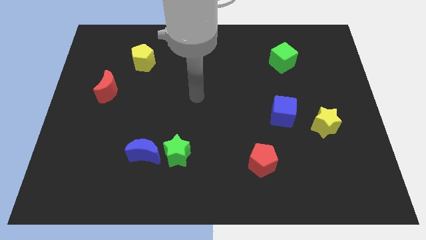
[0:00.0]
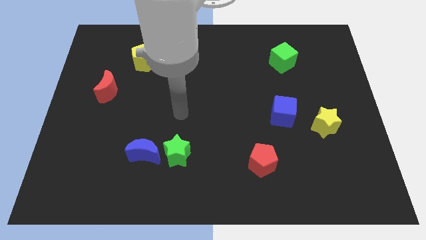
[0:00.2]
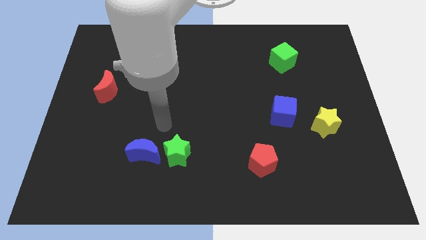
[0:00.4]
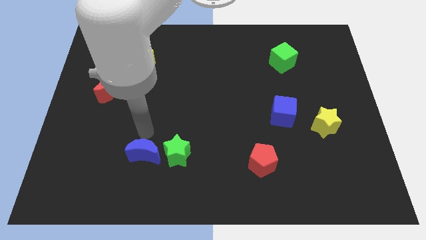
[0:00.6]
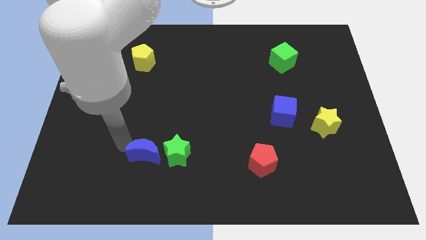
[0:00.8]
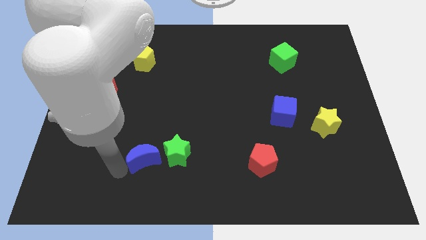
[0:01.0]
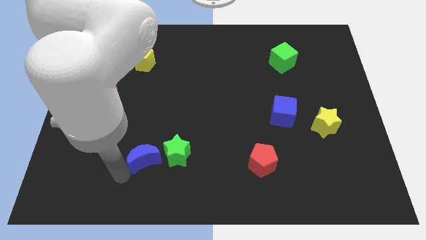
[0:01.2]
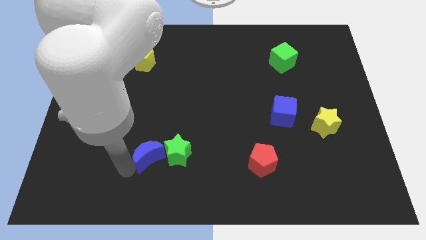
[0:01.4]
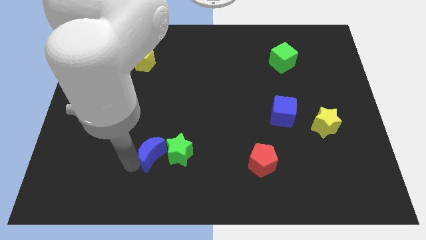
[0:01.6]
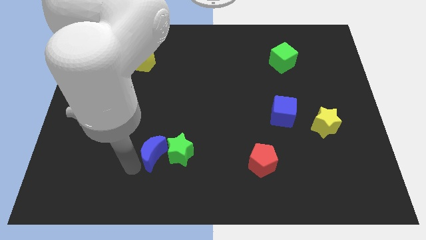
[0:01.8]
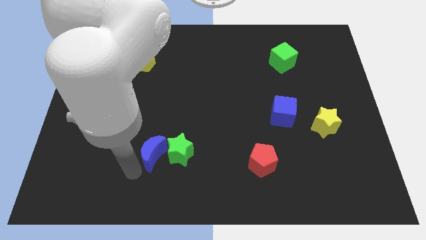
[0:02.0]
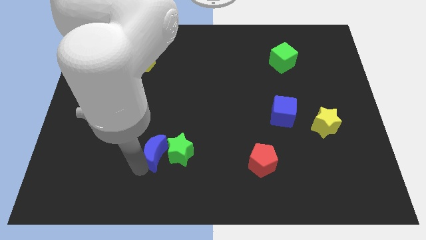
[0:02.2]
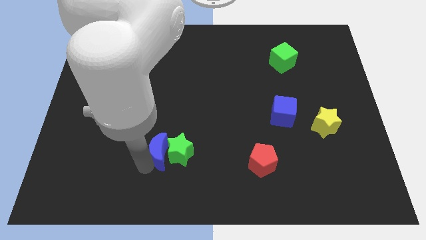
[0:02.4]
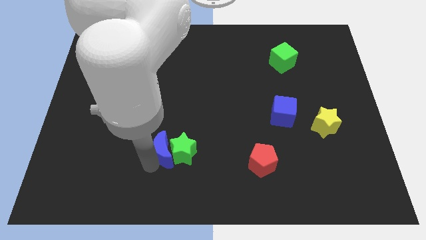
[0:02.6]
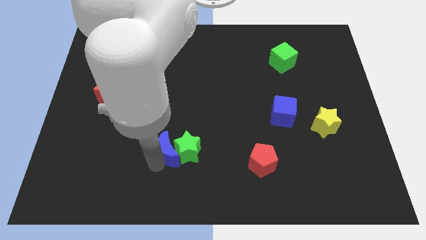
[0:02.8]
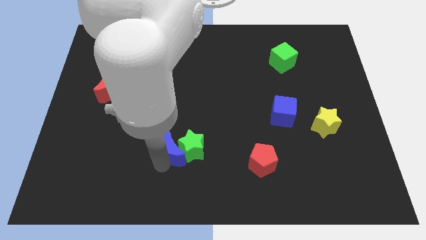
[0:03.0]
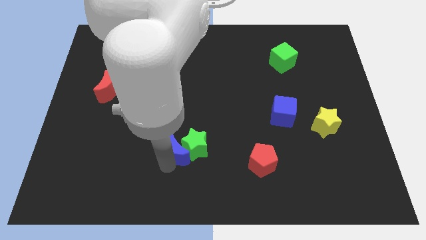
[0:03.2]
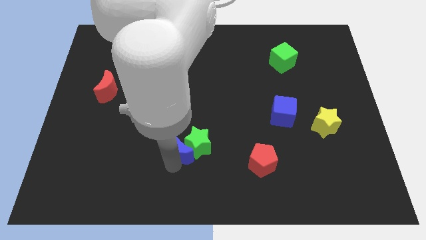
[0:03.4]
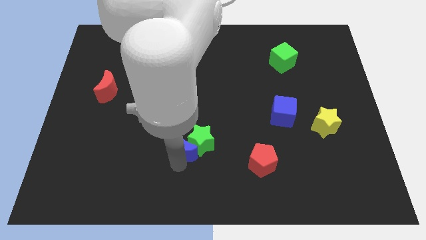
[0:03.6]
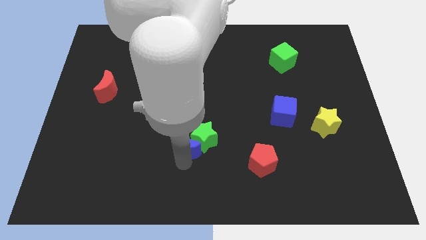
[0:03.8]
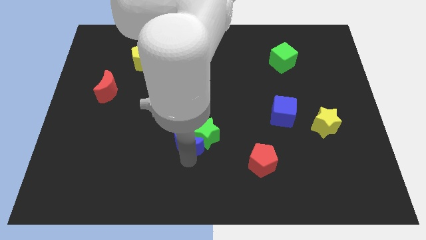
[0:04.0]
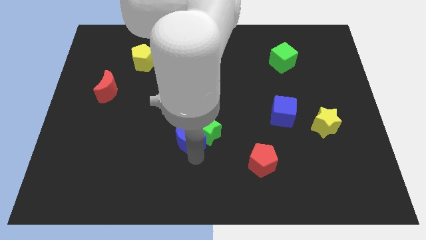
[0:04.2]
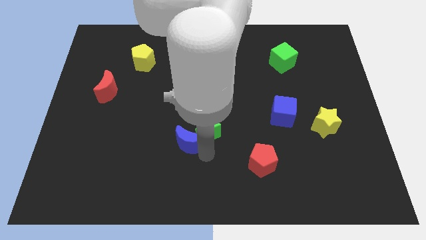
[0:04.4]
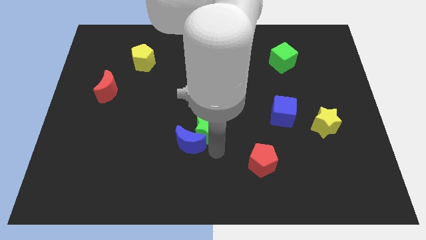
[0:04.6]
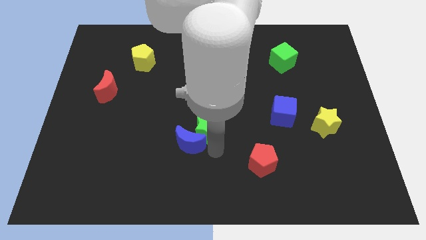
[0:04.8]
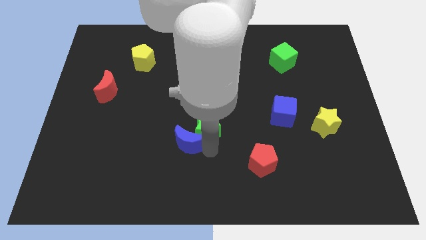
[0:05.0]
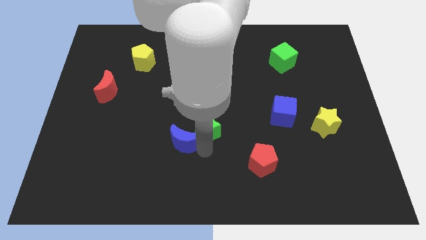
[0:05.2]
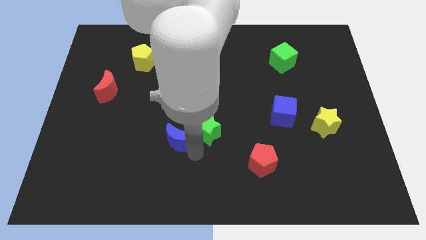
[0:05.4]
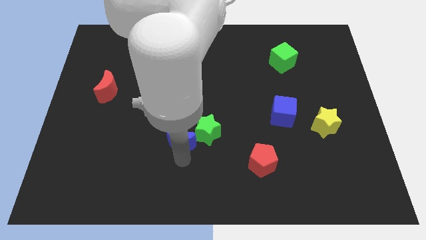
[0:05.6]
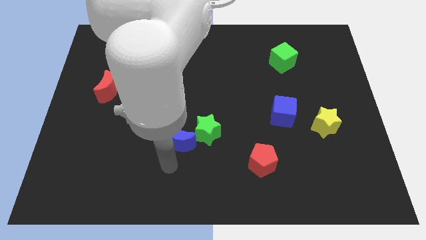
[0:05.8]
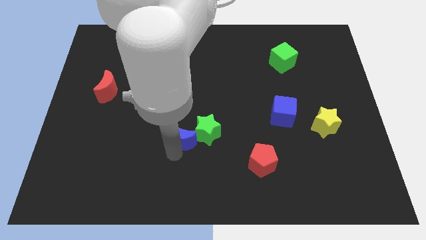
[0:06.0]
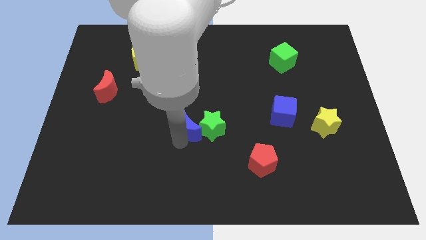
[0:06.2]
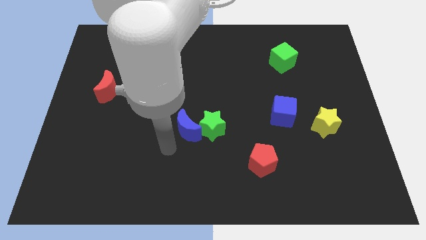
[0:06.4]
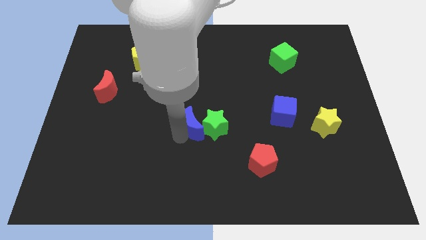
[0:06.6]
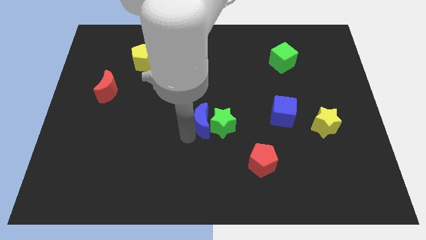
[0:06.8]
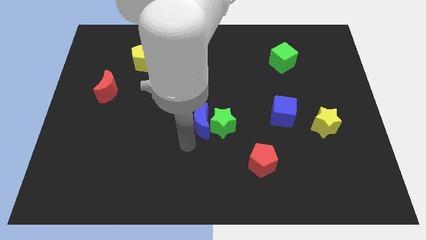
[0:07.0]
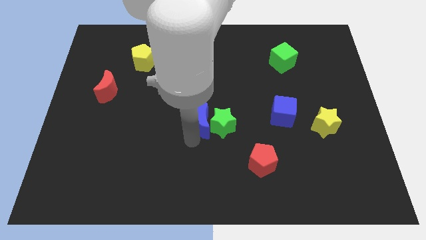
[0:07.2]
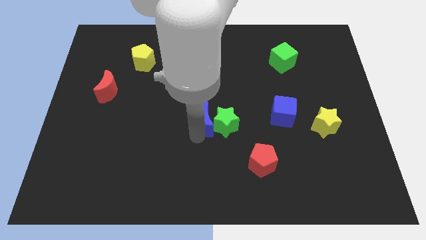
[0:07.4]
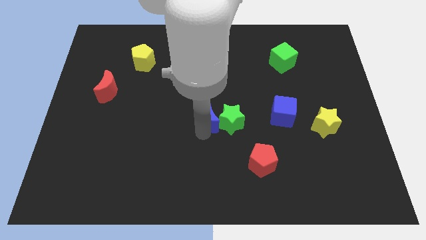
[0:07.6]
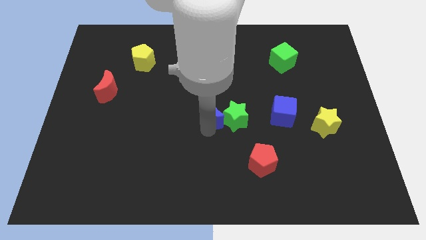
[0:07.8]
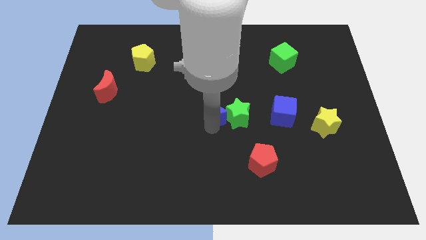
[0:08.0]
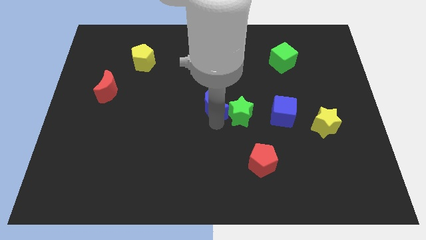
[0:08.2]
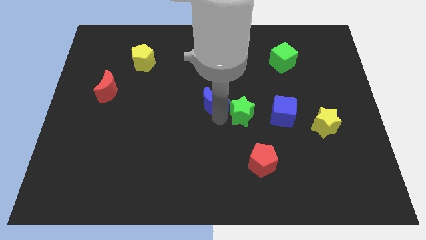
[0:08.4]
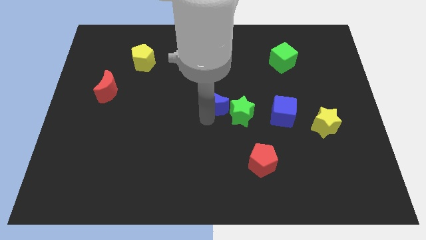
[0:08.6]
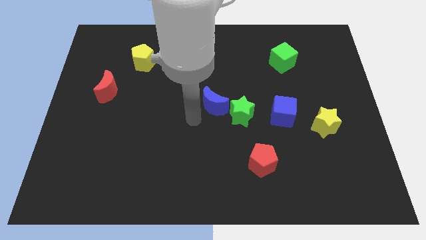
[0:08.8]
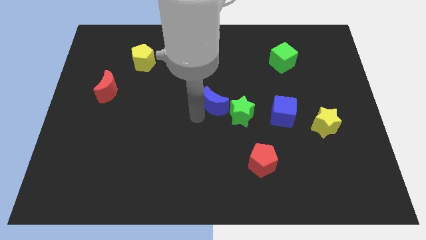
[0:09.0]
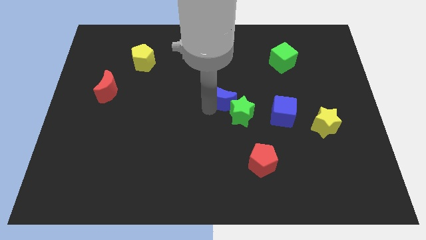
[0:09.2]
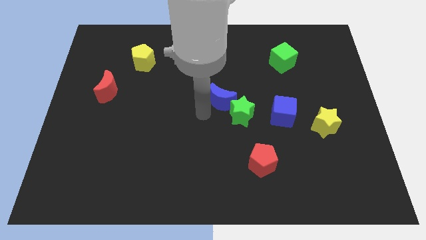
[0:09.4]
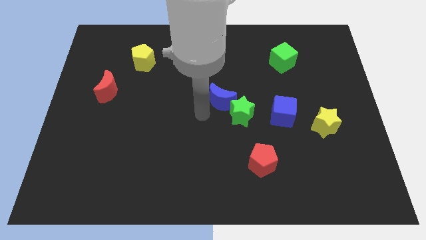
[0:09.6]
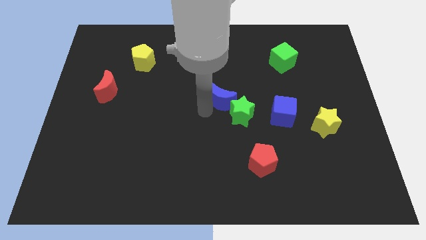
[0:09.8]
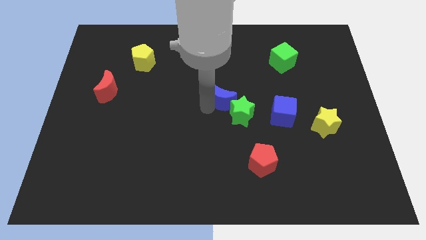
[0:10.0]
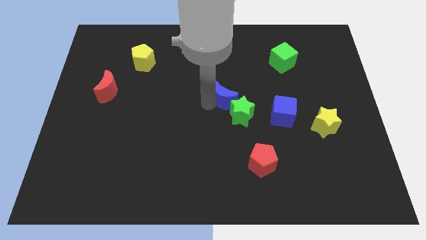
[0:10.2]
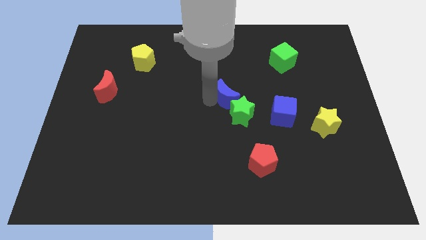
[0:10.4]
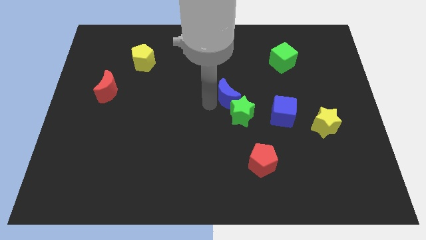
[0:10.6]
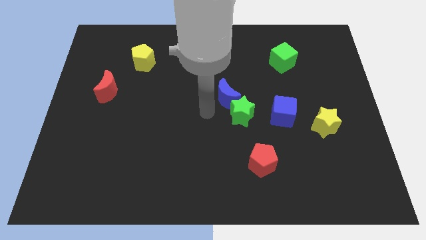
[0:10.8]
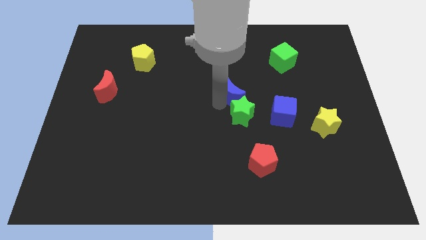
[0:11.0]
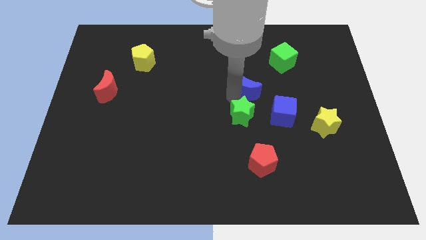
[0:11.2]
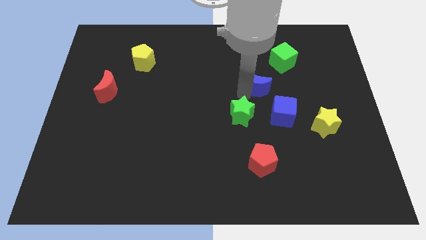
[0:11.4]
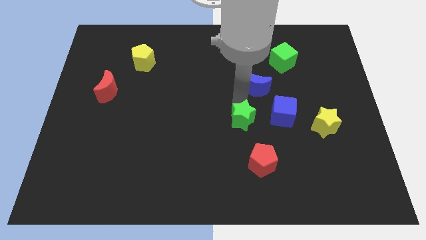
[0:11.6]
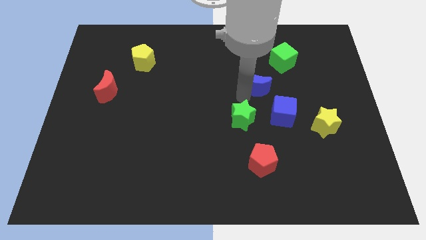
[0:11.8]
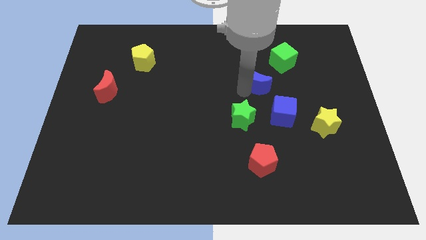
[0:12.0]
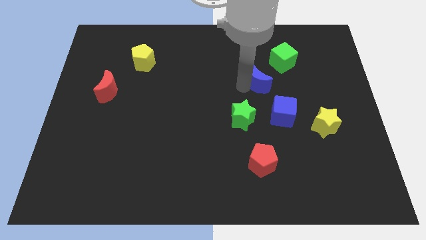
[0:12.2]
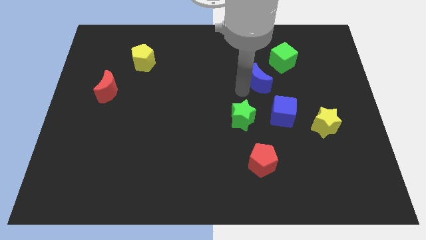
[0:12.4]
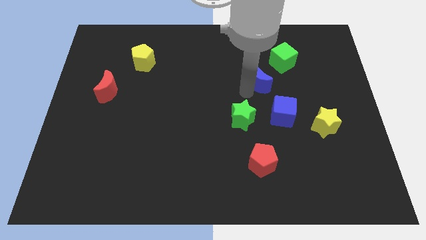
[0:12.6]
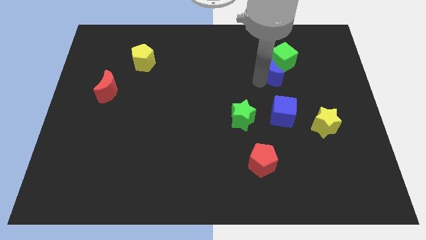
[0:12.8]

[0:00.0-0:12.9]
move the blue moon towards the green cube
